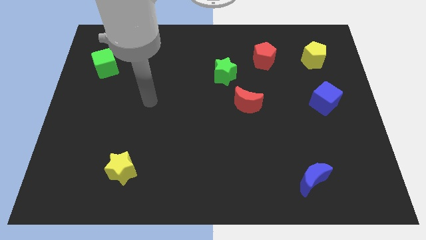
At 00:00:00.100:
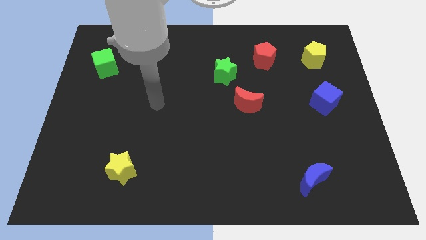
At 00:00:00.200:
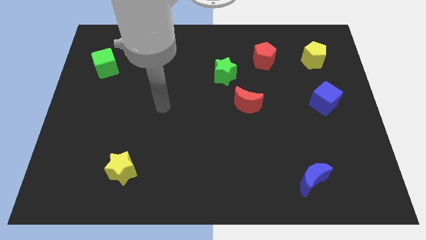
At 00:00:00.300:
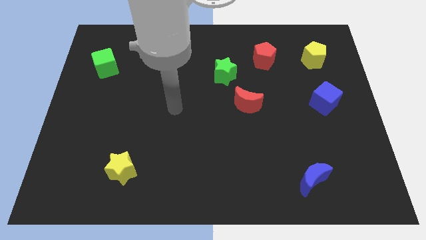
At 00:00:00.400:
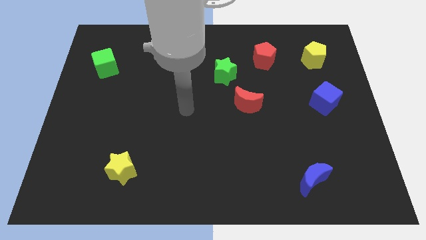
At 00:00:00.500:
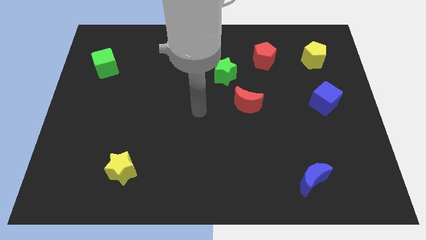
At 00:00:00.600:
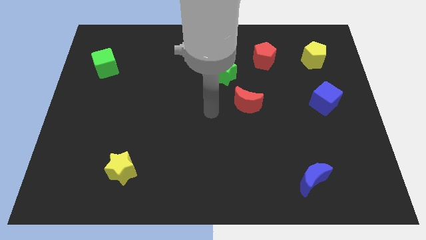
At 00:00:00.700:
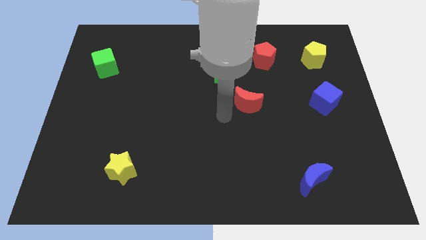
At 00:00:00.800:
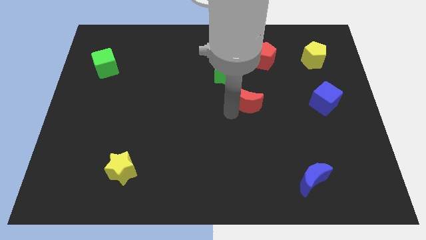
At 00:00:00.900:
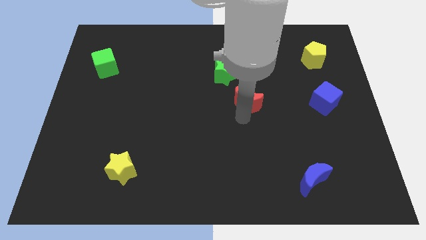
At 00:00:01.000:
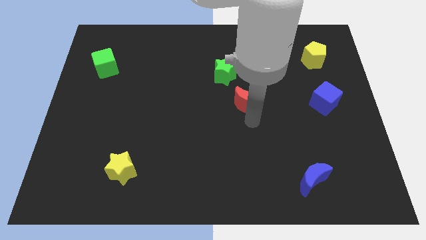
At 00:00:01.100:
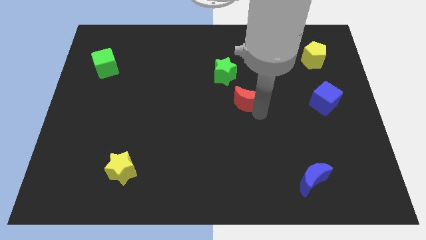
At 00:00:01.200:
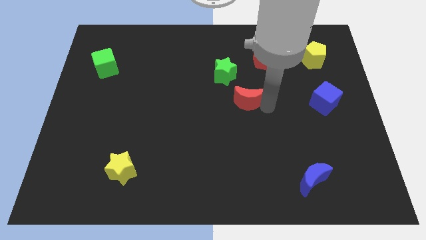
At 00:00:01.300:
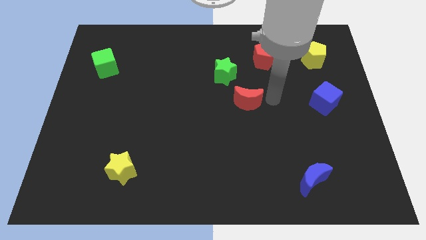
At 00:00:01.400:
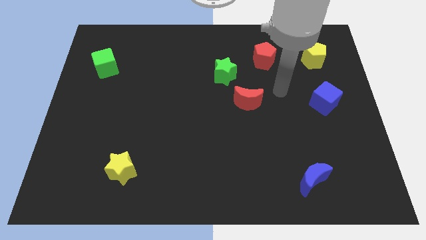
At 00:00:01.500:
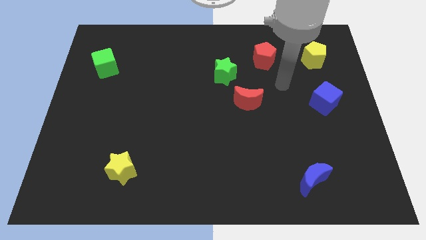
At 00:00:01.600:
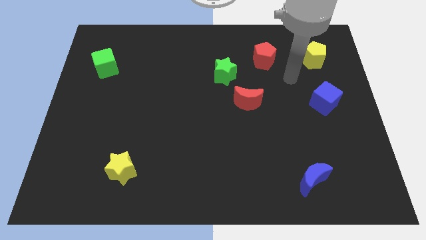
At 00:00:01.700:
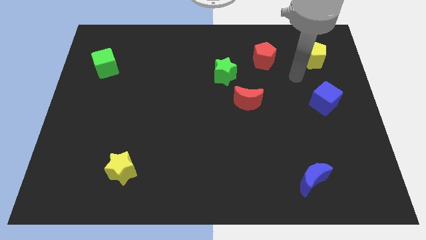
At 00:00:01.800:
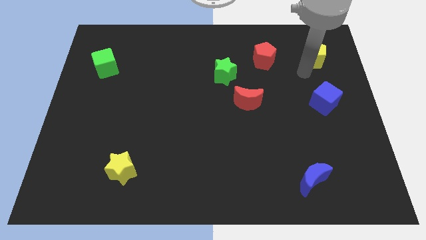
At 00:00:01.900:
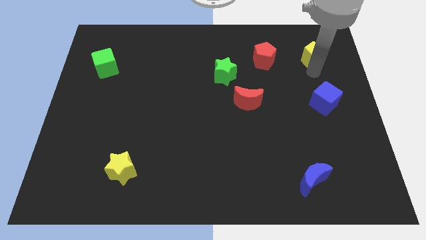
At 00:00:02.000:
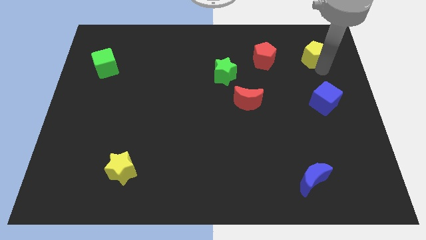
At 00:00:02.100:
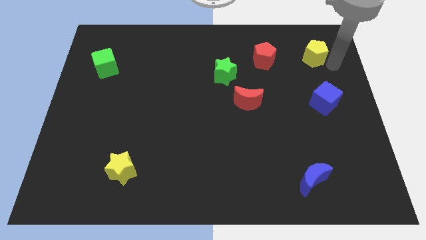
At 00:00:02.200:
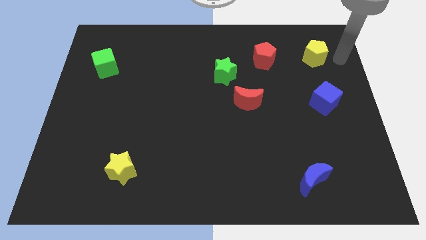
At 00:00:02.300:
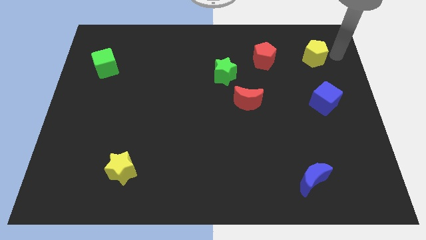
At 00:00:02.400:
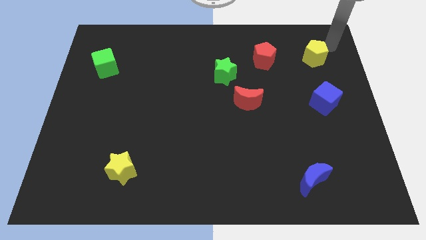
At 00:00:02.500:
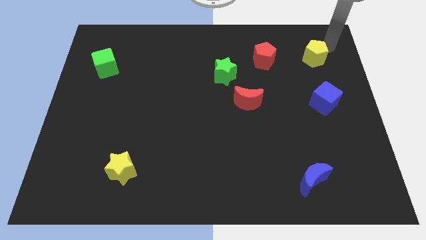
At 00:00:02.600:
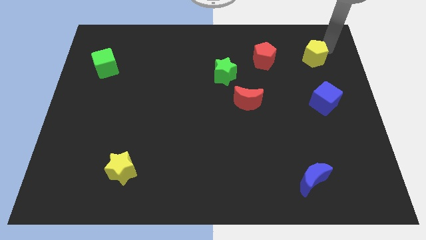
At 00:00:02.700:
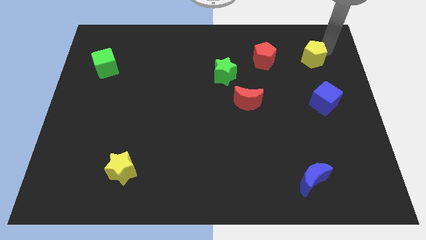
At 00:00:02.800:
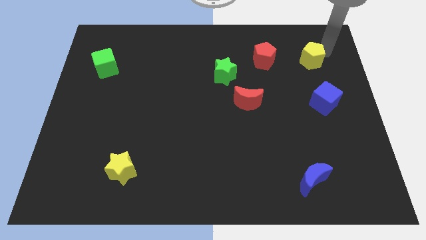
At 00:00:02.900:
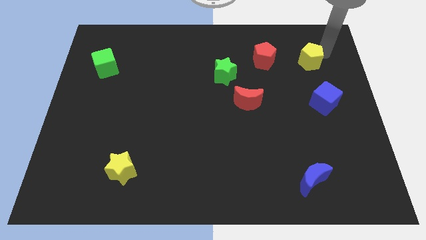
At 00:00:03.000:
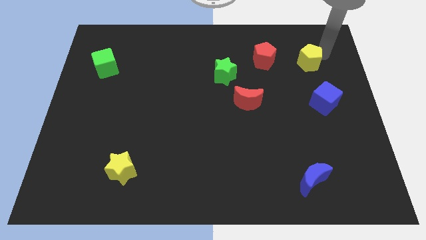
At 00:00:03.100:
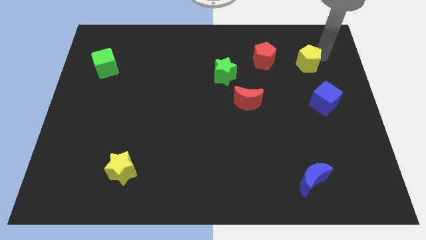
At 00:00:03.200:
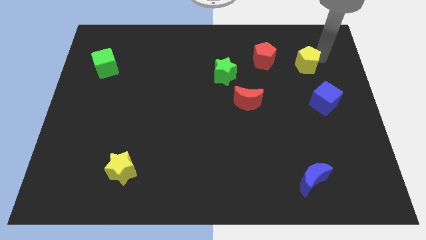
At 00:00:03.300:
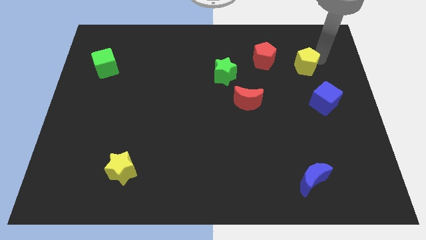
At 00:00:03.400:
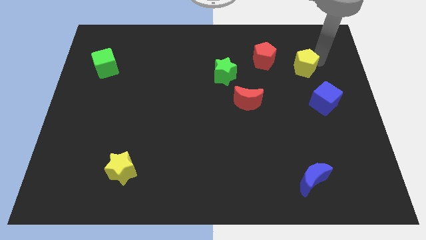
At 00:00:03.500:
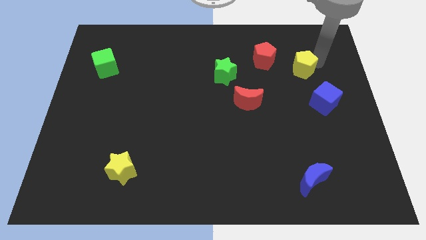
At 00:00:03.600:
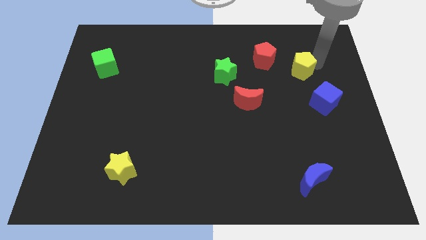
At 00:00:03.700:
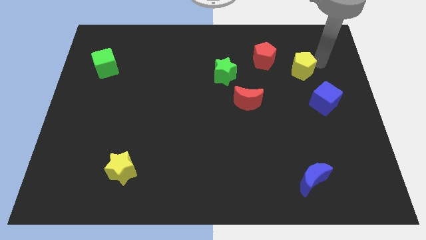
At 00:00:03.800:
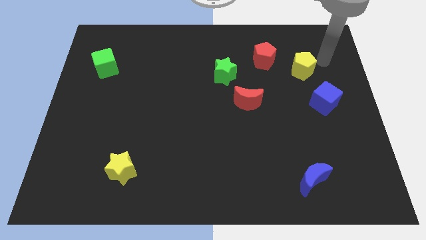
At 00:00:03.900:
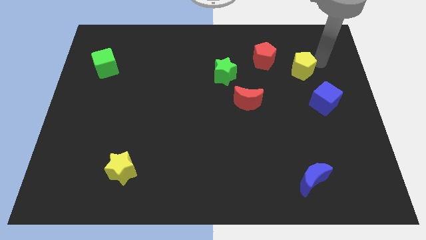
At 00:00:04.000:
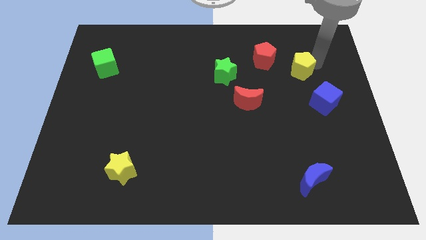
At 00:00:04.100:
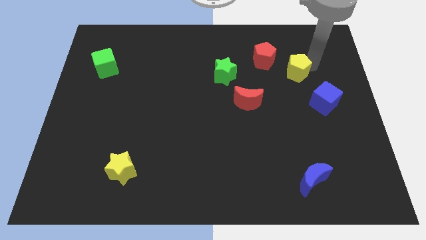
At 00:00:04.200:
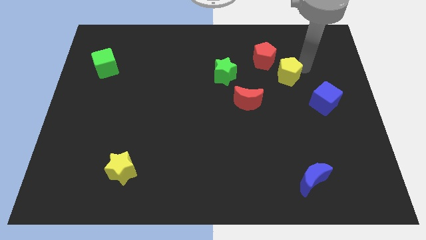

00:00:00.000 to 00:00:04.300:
move the yellow pentagon somewhat downwards and left diagonally

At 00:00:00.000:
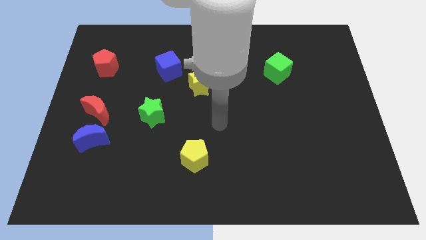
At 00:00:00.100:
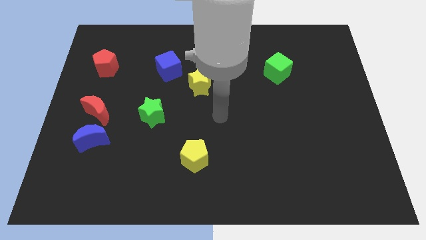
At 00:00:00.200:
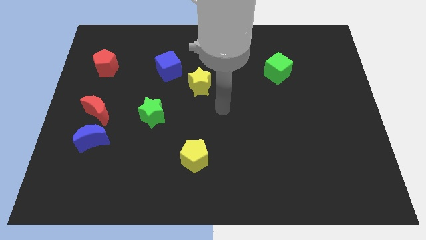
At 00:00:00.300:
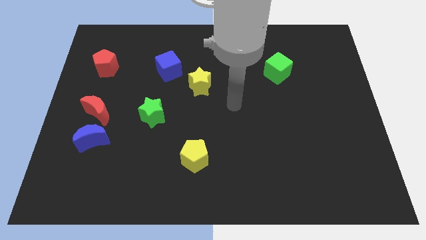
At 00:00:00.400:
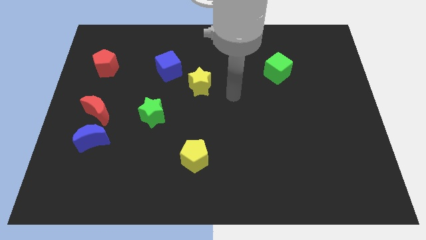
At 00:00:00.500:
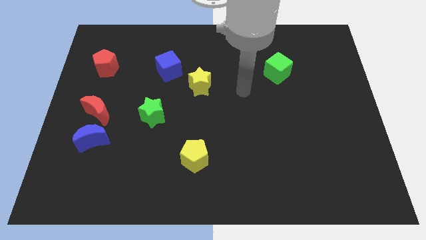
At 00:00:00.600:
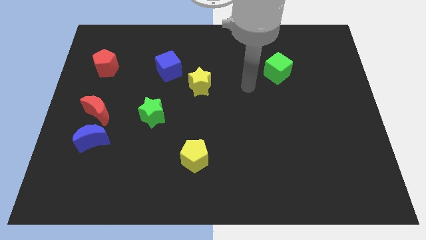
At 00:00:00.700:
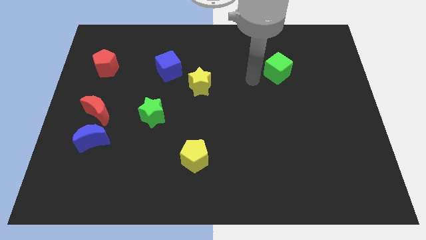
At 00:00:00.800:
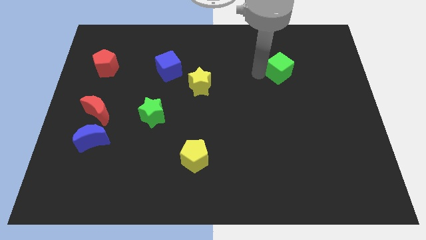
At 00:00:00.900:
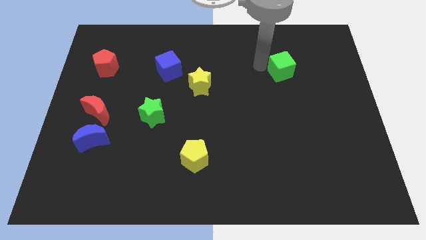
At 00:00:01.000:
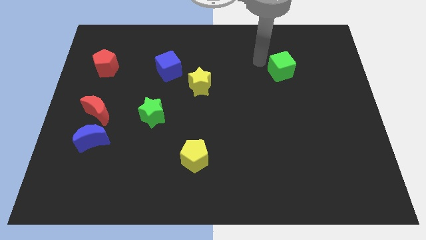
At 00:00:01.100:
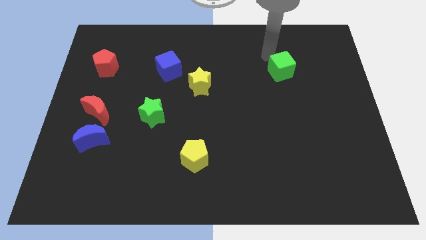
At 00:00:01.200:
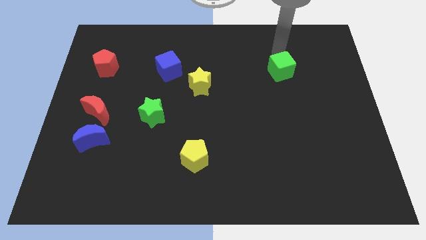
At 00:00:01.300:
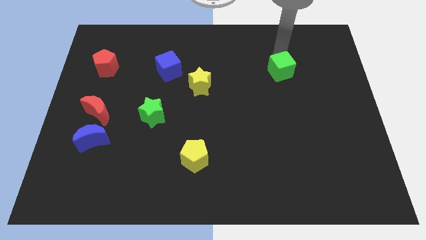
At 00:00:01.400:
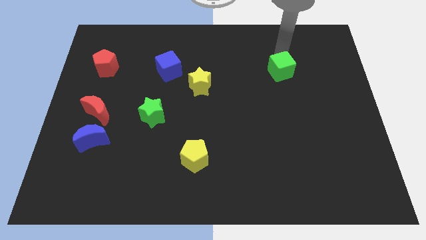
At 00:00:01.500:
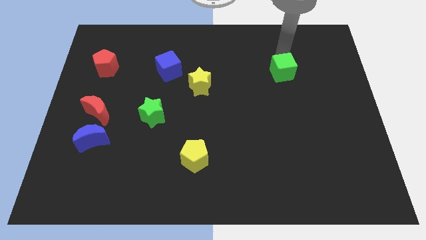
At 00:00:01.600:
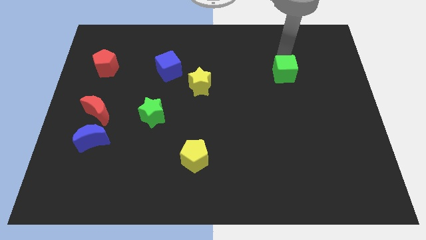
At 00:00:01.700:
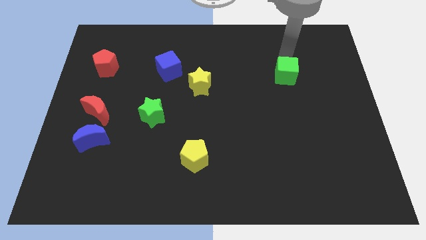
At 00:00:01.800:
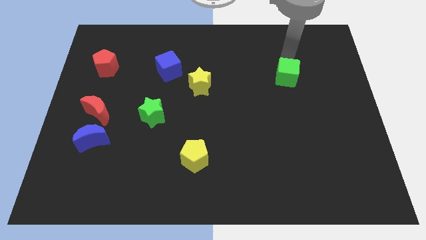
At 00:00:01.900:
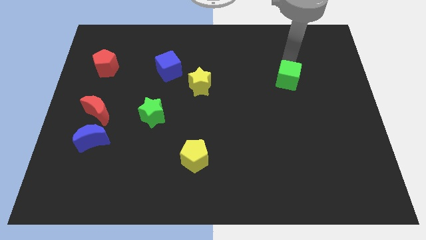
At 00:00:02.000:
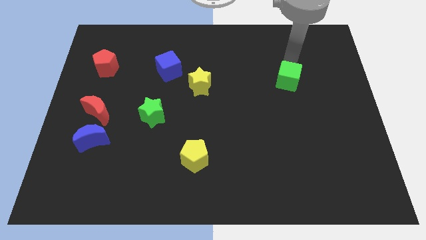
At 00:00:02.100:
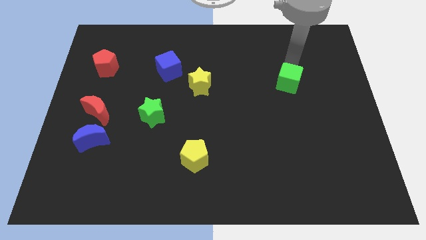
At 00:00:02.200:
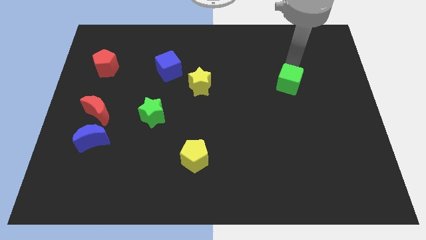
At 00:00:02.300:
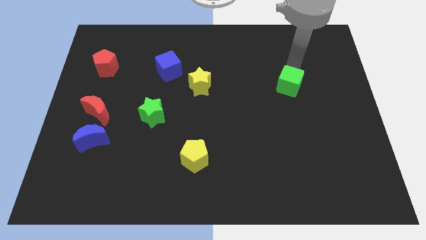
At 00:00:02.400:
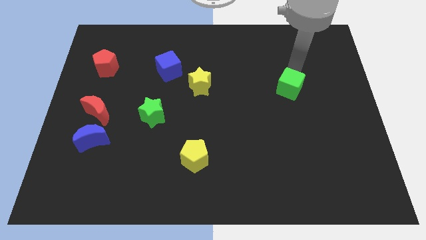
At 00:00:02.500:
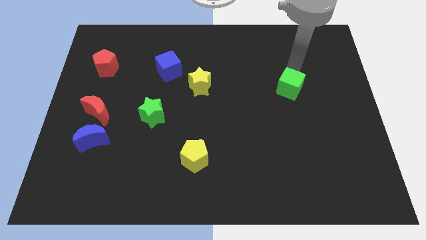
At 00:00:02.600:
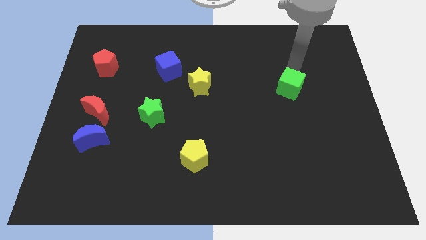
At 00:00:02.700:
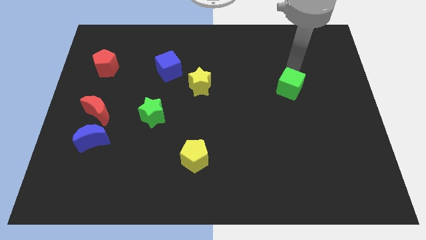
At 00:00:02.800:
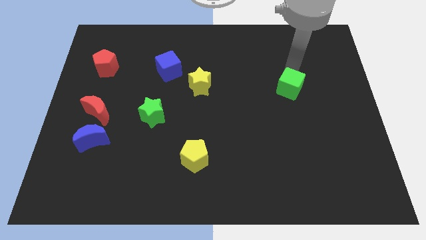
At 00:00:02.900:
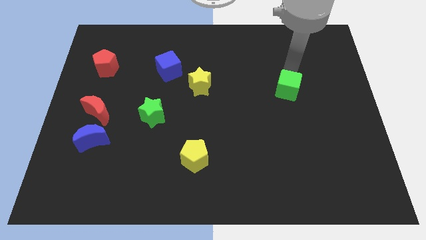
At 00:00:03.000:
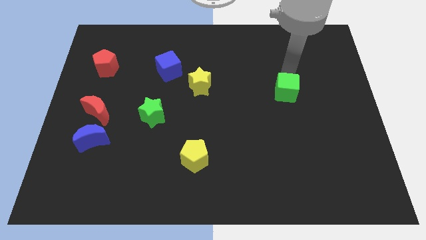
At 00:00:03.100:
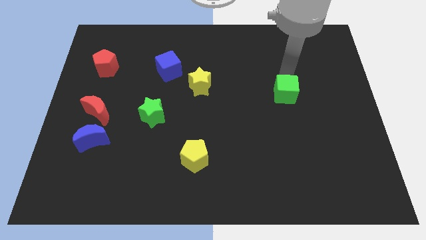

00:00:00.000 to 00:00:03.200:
slightly push the green cube down

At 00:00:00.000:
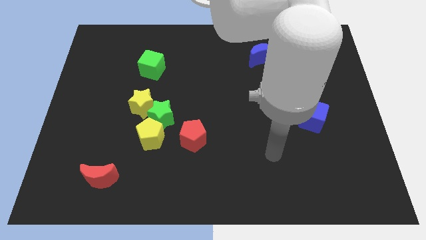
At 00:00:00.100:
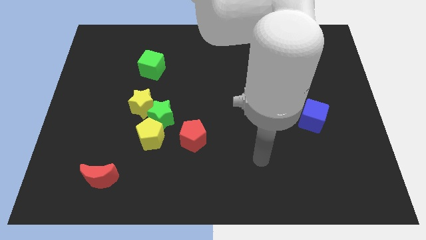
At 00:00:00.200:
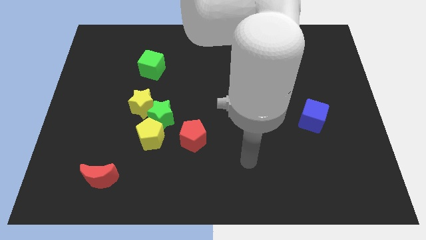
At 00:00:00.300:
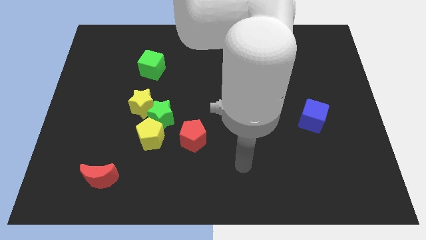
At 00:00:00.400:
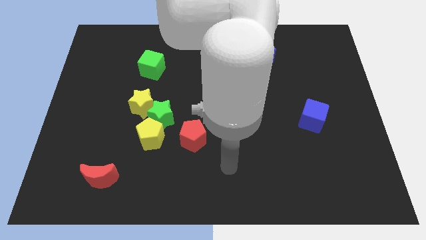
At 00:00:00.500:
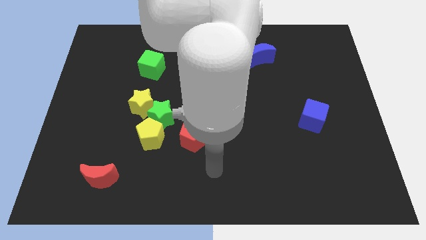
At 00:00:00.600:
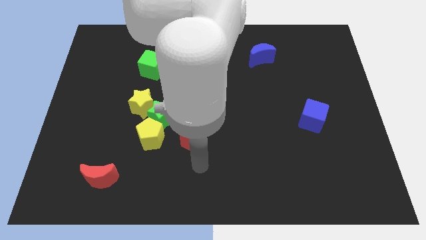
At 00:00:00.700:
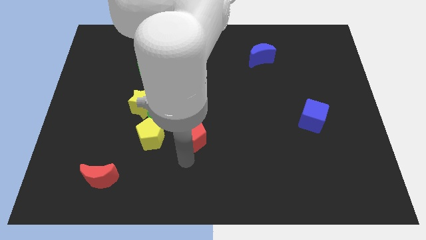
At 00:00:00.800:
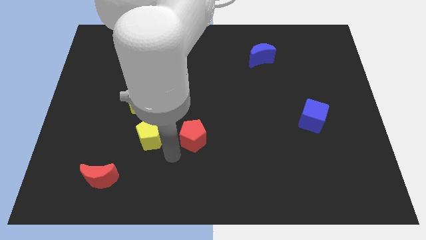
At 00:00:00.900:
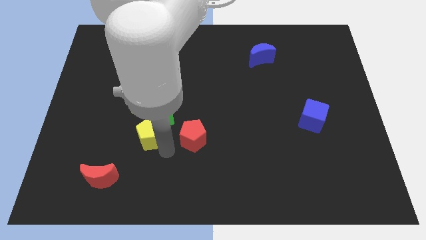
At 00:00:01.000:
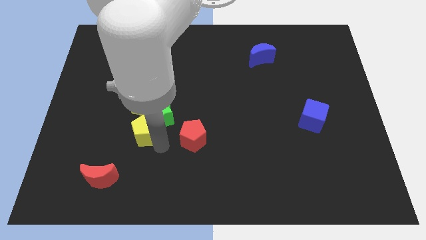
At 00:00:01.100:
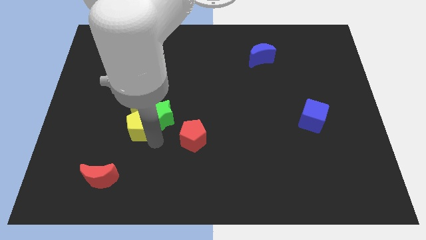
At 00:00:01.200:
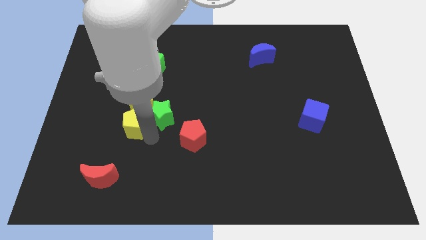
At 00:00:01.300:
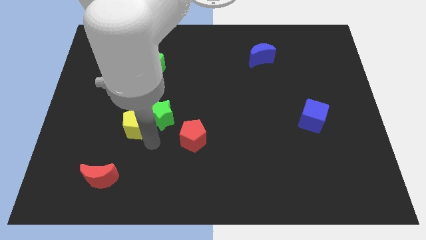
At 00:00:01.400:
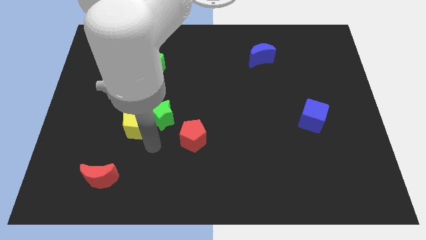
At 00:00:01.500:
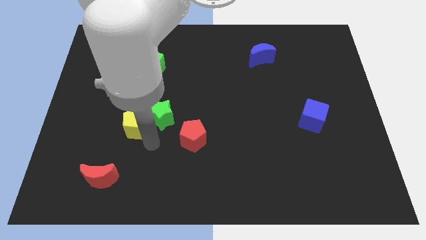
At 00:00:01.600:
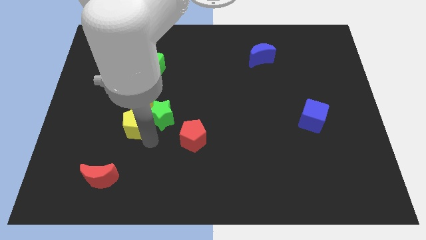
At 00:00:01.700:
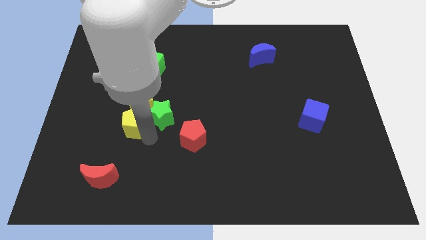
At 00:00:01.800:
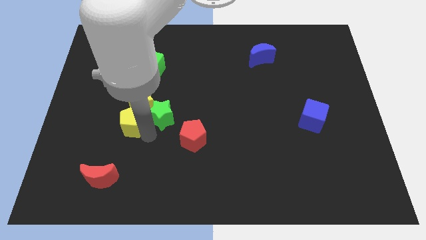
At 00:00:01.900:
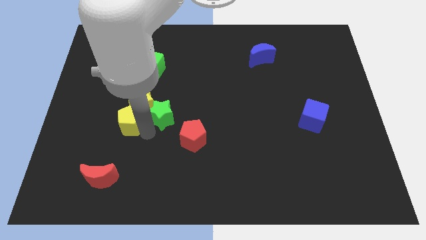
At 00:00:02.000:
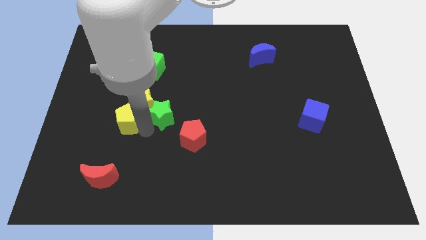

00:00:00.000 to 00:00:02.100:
slightly slide the yellow pentagon diagonally up and to the left
